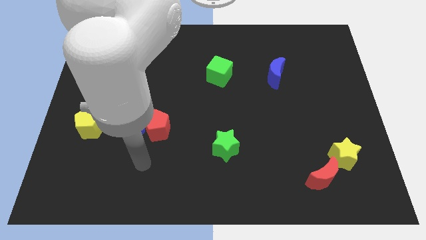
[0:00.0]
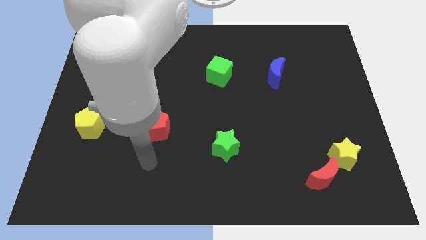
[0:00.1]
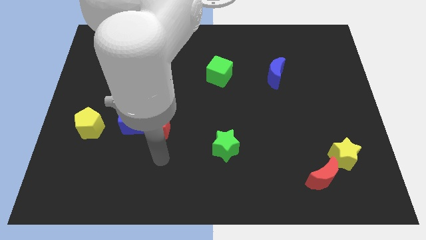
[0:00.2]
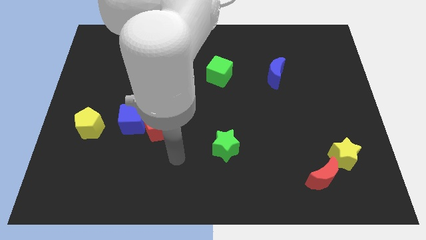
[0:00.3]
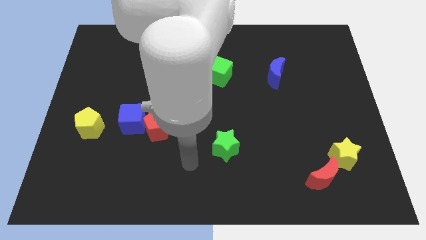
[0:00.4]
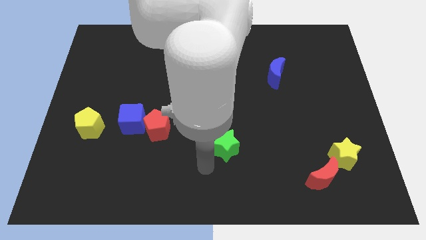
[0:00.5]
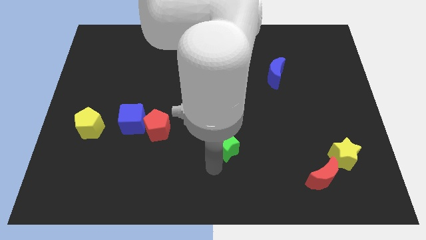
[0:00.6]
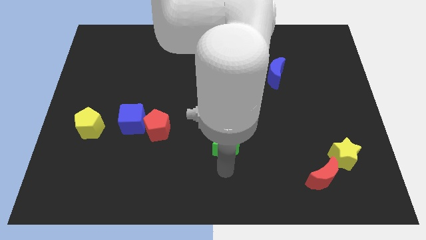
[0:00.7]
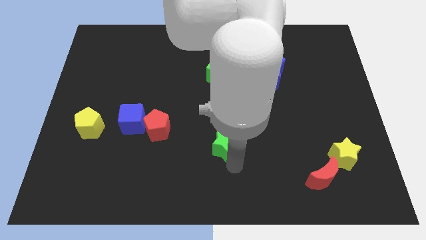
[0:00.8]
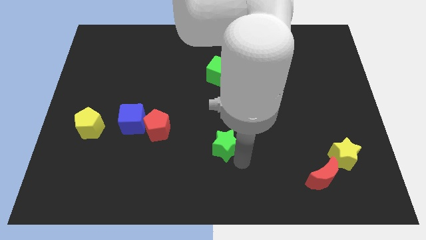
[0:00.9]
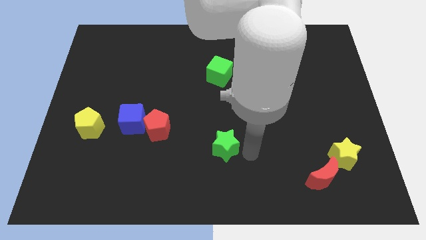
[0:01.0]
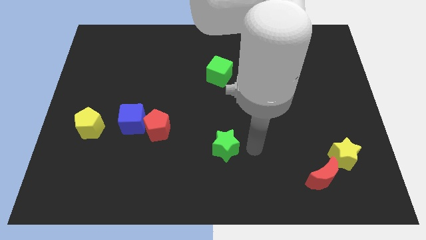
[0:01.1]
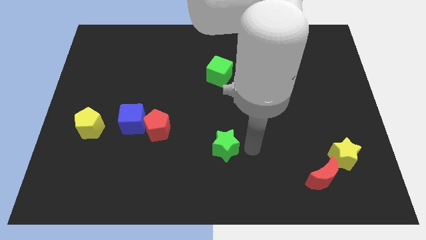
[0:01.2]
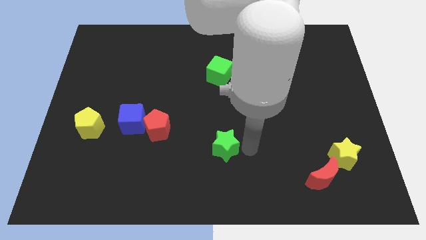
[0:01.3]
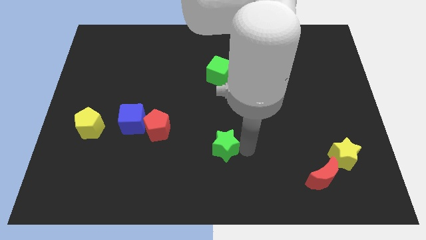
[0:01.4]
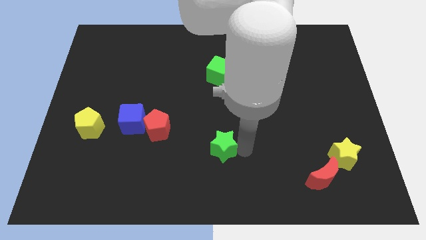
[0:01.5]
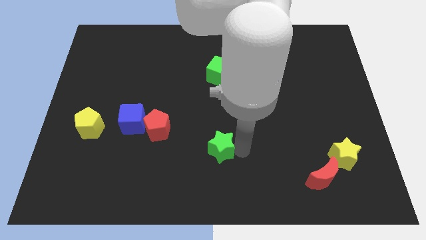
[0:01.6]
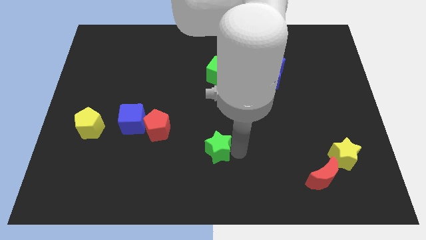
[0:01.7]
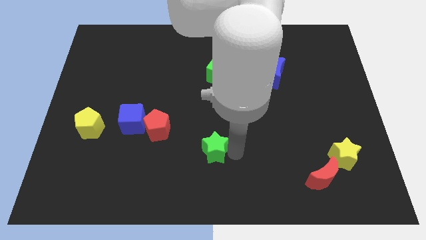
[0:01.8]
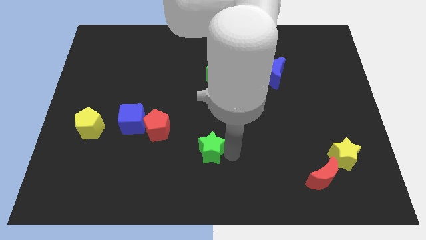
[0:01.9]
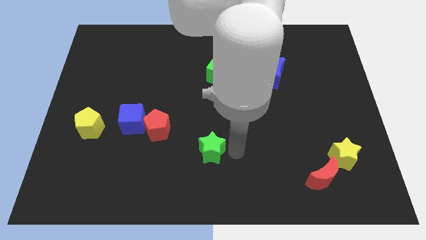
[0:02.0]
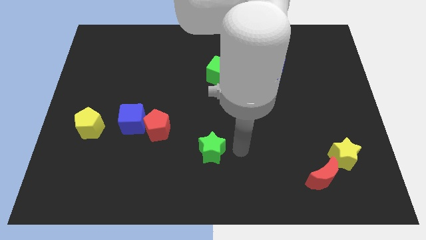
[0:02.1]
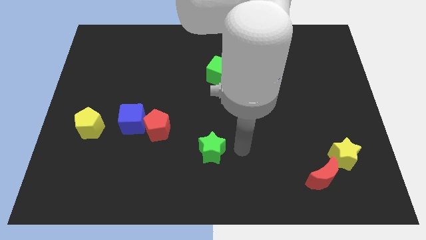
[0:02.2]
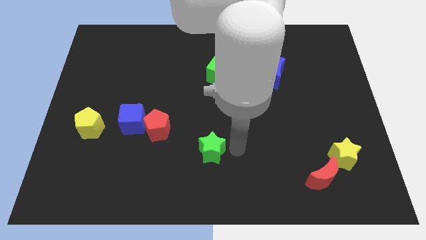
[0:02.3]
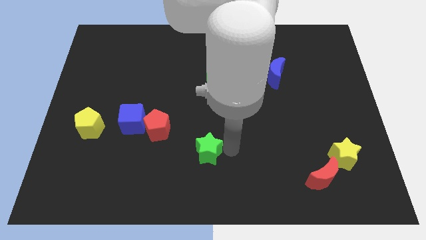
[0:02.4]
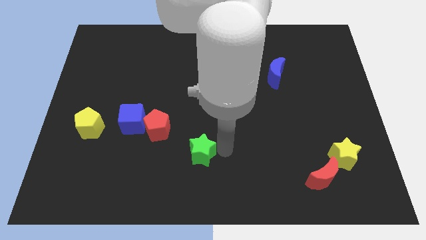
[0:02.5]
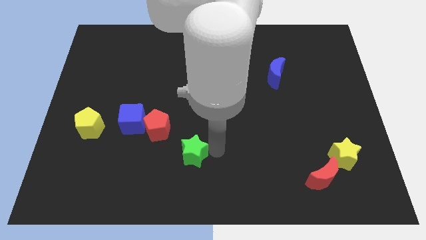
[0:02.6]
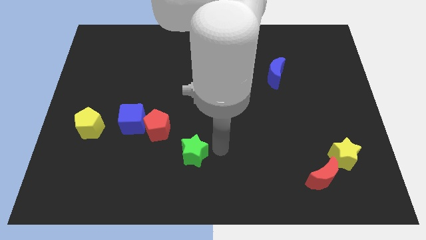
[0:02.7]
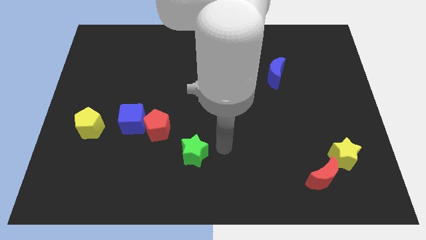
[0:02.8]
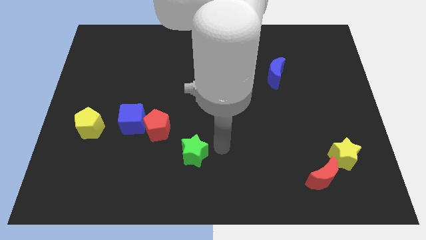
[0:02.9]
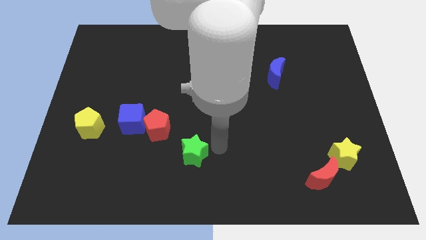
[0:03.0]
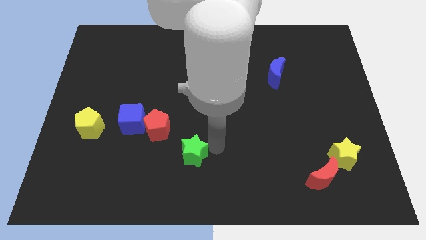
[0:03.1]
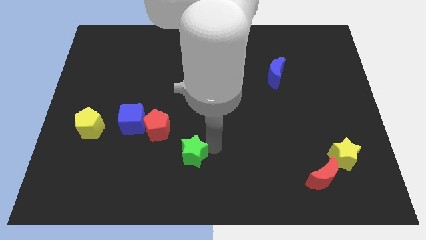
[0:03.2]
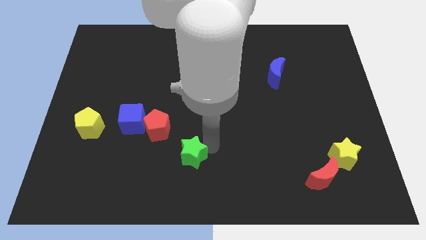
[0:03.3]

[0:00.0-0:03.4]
push the green star a little to the left

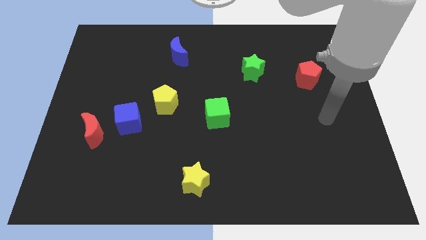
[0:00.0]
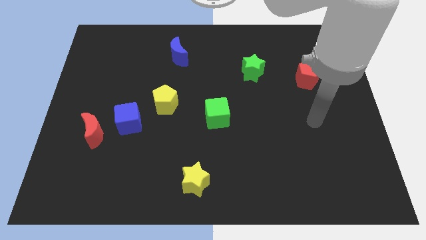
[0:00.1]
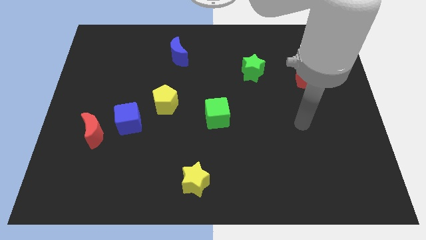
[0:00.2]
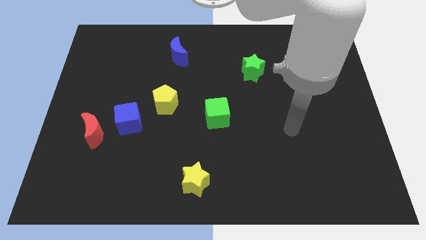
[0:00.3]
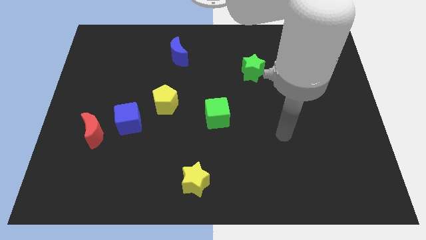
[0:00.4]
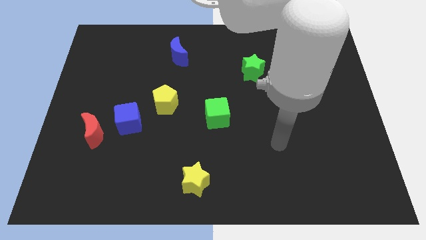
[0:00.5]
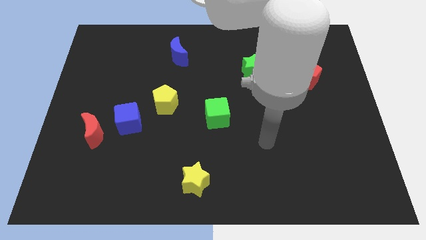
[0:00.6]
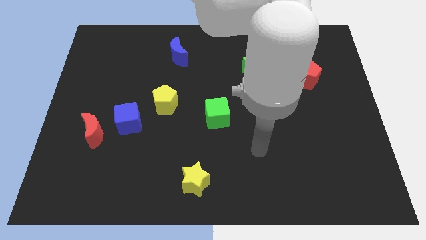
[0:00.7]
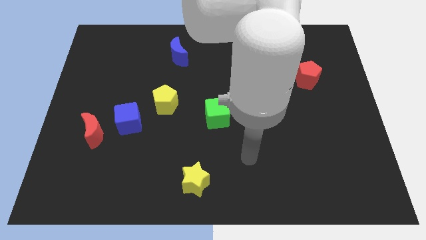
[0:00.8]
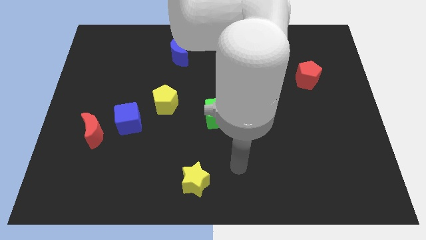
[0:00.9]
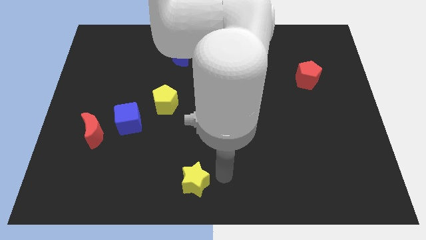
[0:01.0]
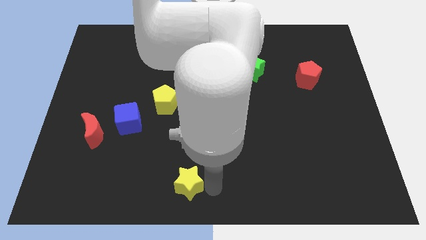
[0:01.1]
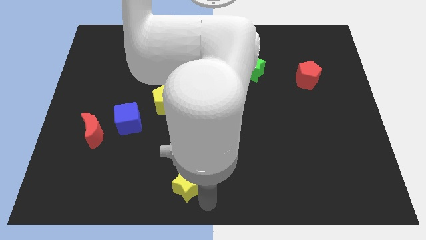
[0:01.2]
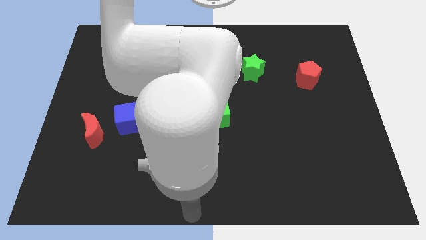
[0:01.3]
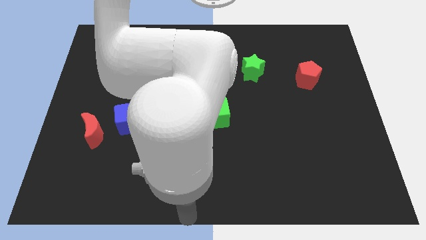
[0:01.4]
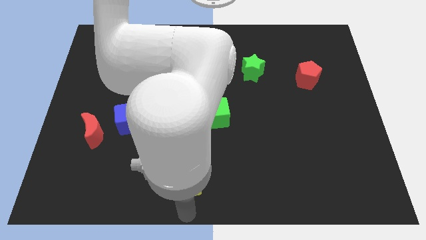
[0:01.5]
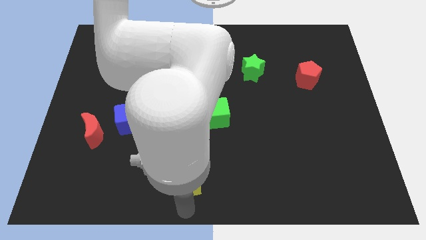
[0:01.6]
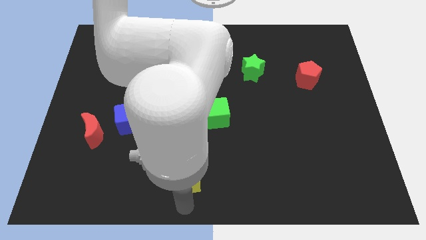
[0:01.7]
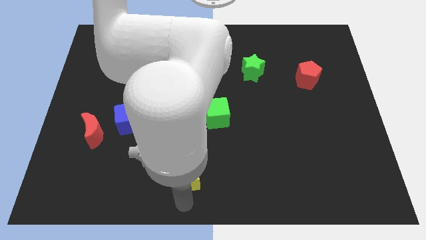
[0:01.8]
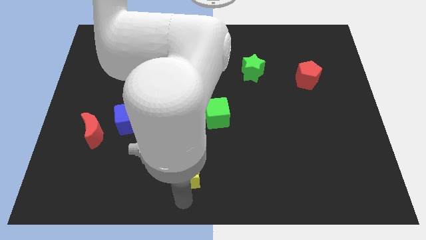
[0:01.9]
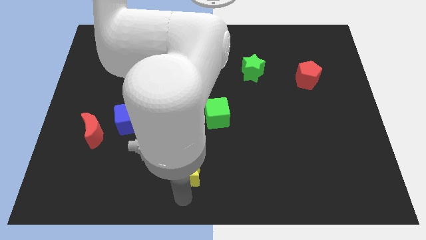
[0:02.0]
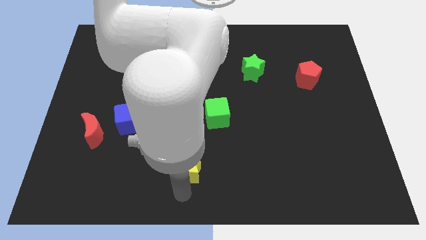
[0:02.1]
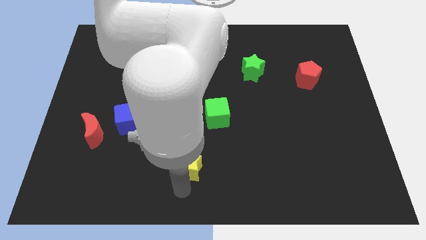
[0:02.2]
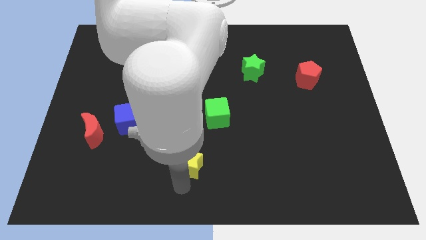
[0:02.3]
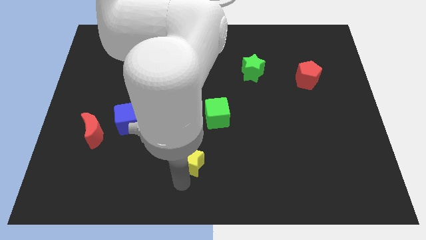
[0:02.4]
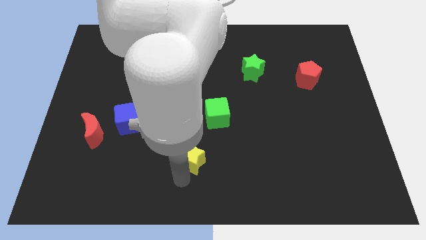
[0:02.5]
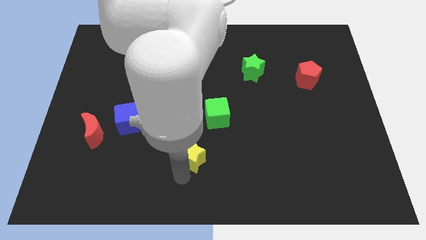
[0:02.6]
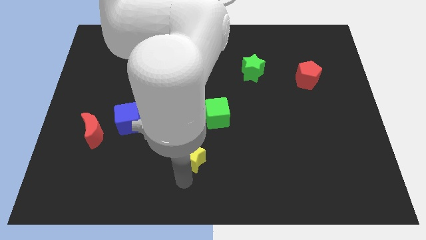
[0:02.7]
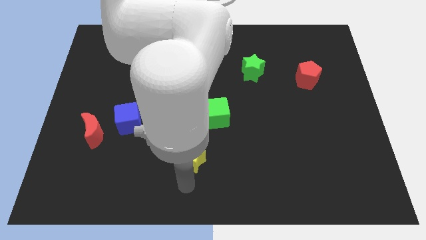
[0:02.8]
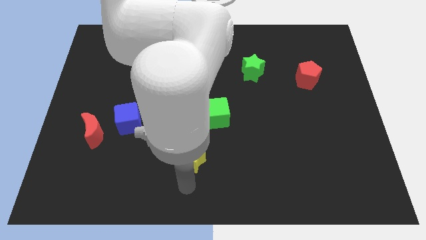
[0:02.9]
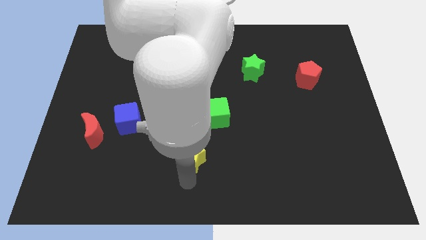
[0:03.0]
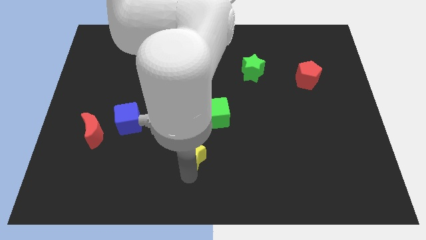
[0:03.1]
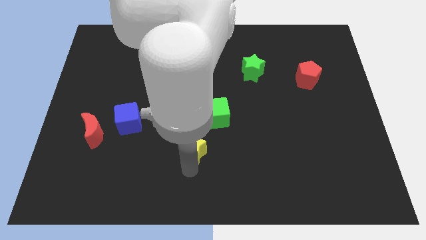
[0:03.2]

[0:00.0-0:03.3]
slightly slide the yellow star up

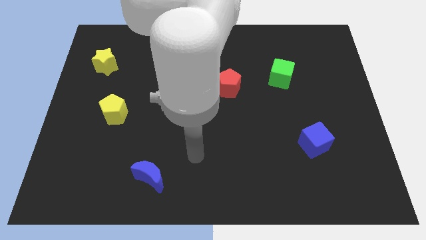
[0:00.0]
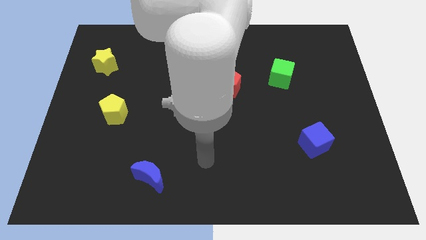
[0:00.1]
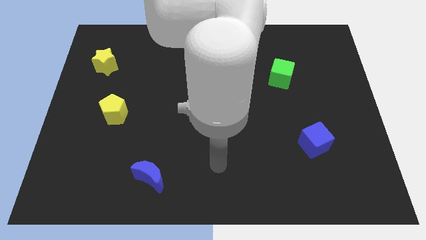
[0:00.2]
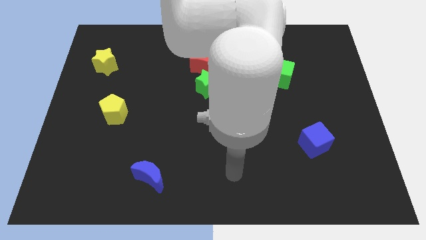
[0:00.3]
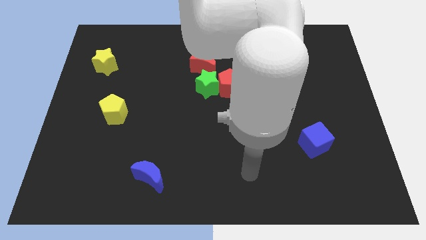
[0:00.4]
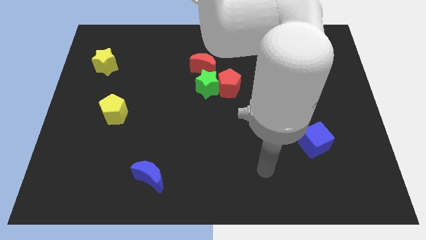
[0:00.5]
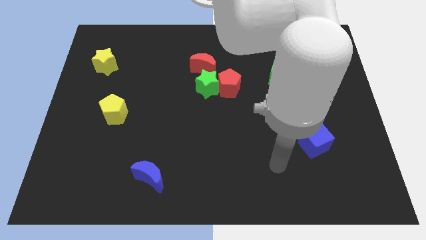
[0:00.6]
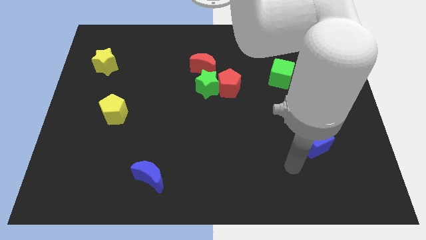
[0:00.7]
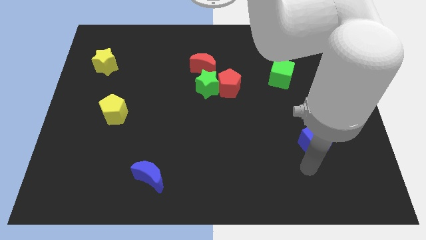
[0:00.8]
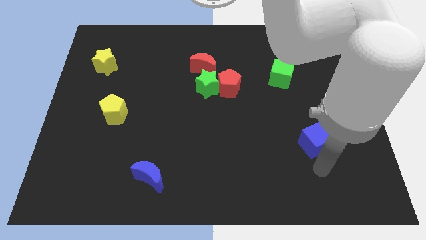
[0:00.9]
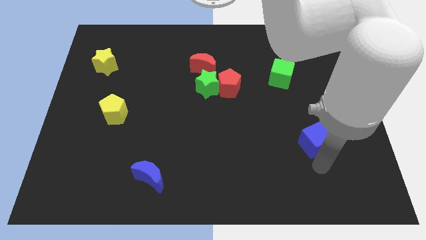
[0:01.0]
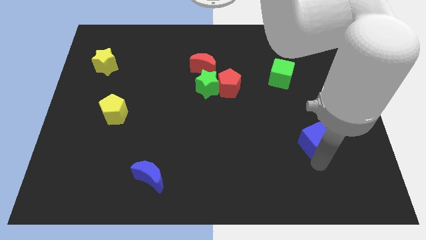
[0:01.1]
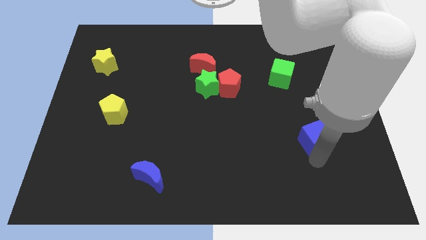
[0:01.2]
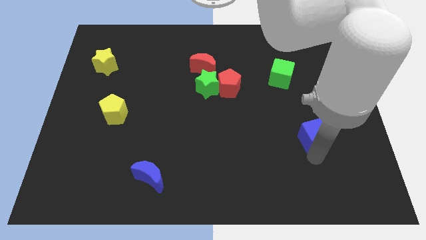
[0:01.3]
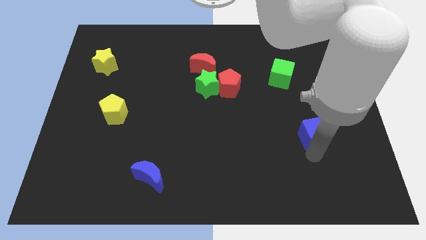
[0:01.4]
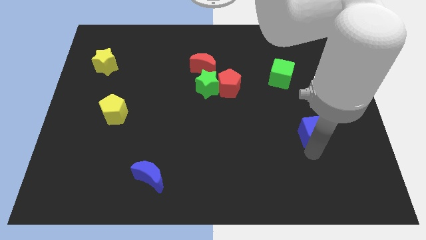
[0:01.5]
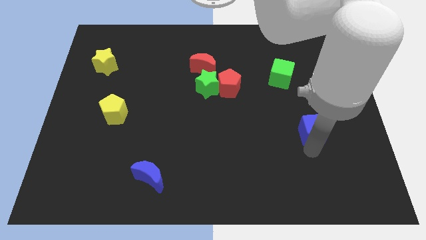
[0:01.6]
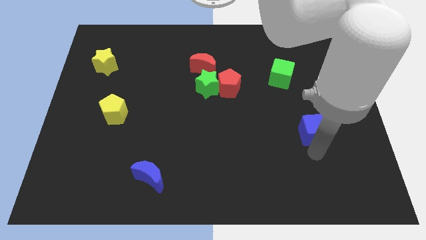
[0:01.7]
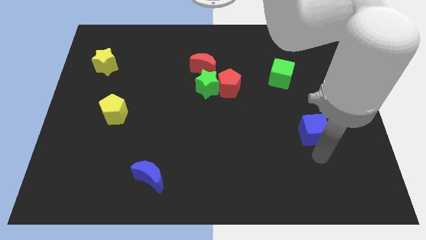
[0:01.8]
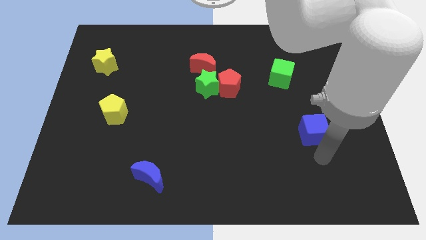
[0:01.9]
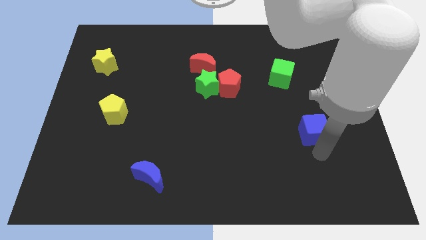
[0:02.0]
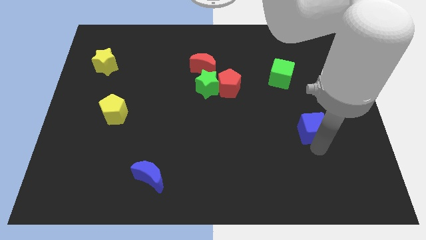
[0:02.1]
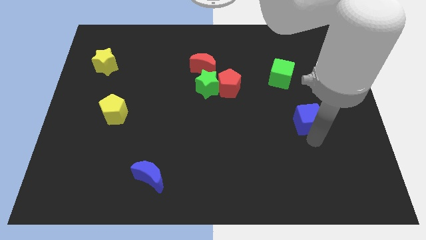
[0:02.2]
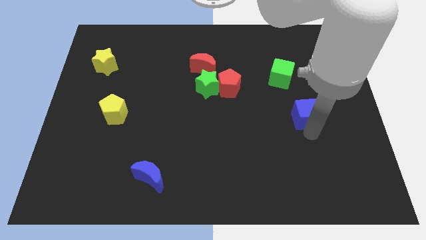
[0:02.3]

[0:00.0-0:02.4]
push the blue cube a little bit upwards
